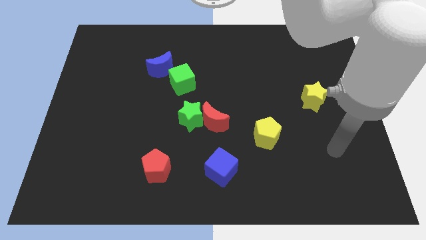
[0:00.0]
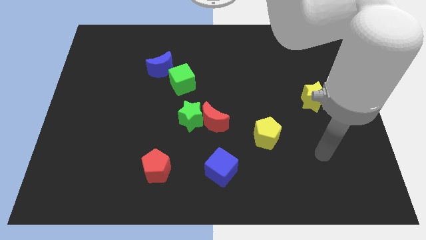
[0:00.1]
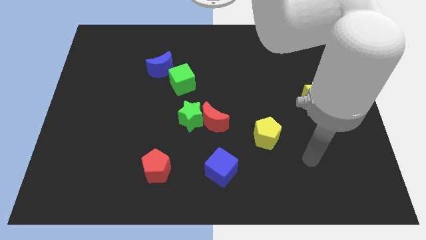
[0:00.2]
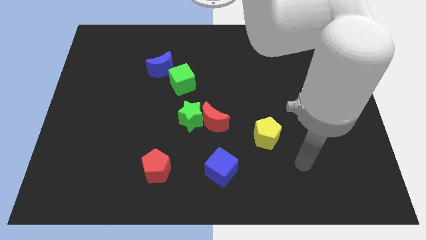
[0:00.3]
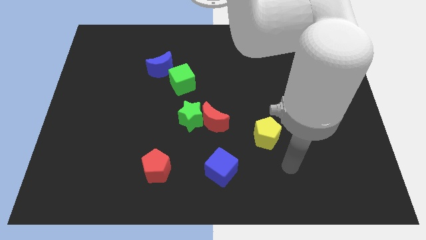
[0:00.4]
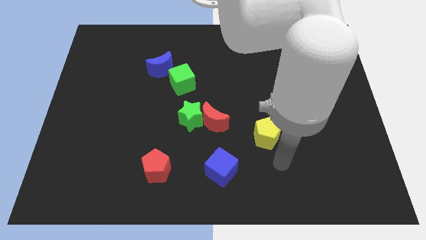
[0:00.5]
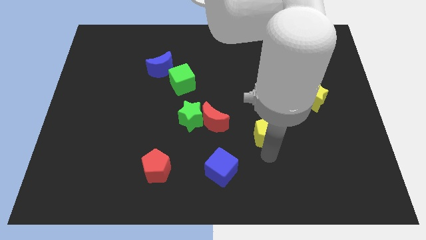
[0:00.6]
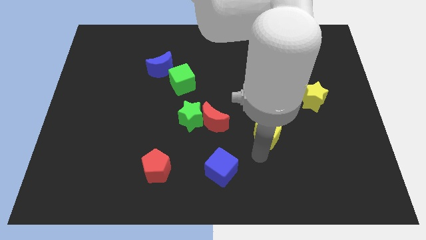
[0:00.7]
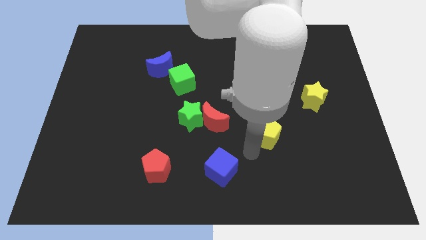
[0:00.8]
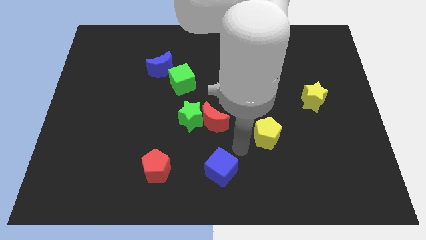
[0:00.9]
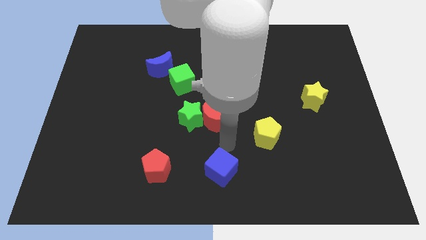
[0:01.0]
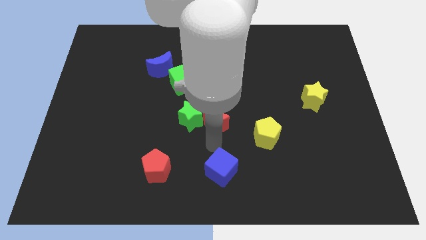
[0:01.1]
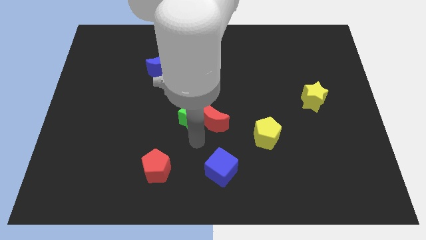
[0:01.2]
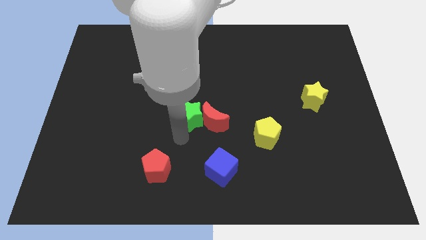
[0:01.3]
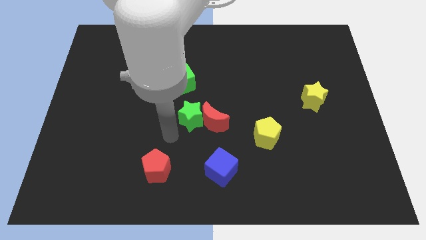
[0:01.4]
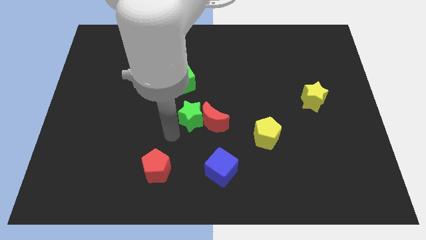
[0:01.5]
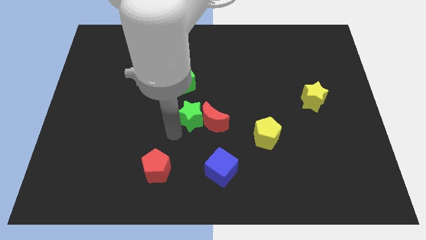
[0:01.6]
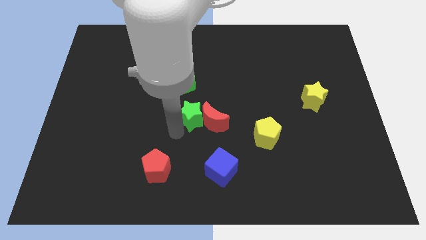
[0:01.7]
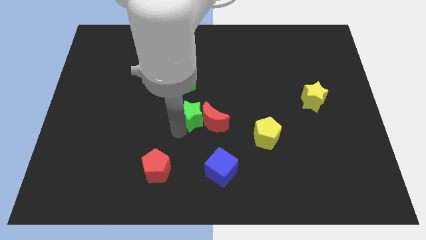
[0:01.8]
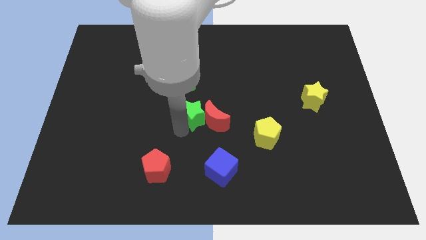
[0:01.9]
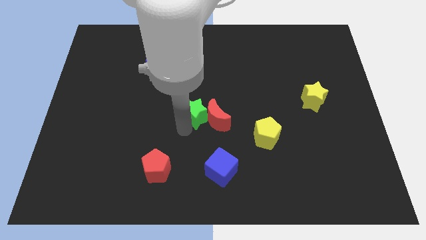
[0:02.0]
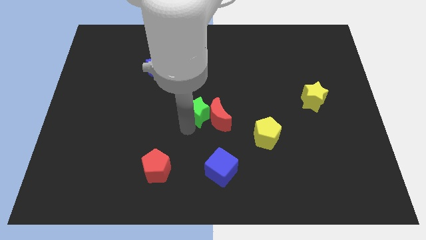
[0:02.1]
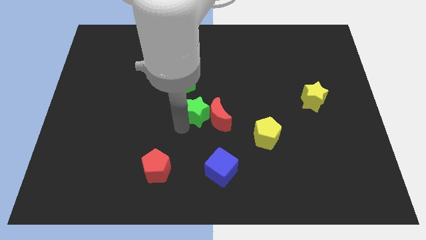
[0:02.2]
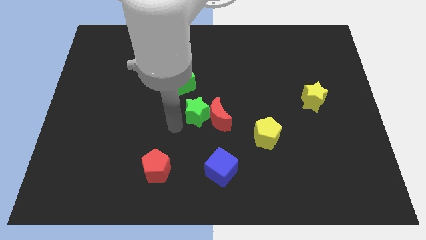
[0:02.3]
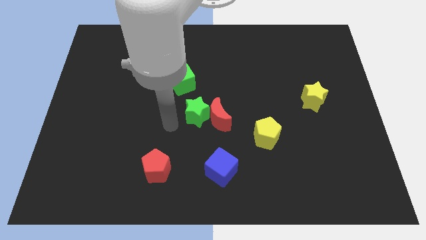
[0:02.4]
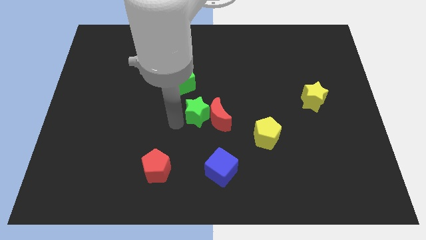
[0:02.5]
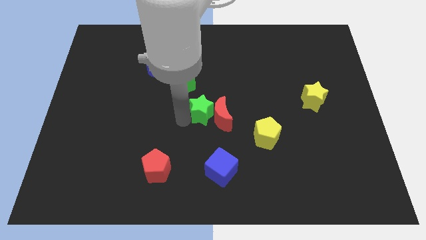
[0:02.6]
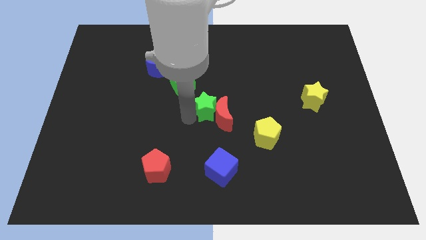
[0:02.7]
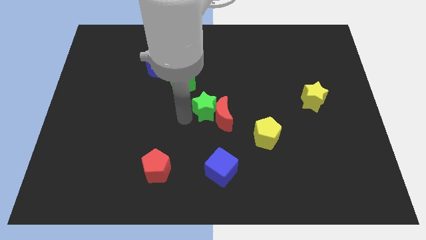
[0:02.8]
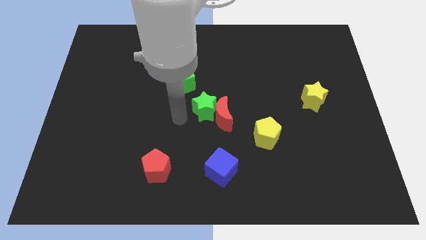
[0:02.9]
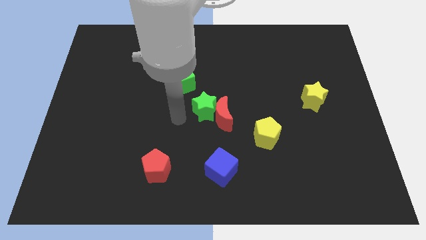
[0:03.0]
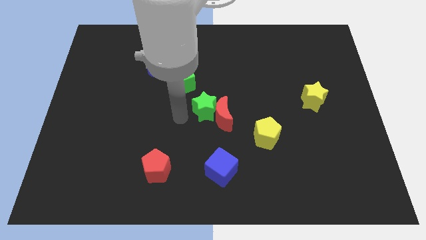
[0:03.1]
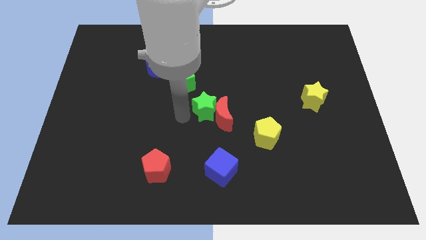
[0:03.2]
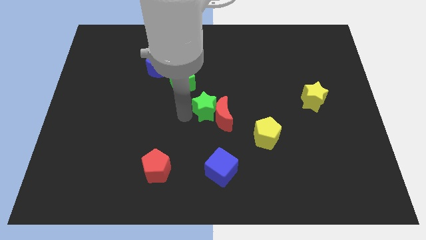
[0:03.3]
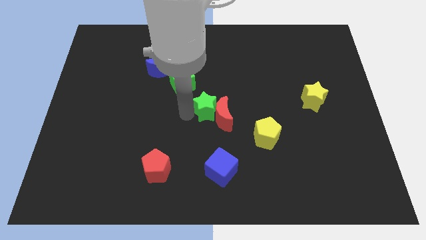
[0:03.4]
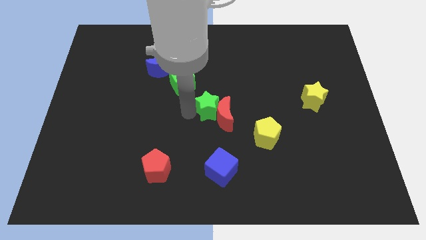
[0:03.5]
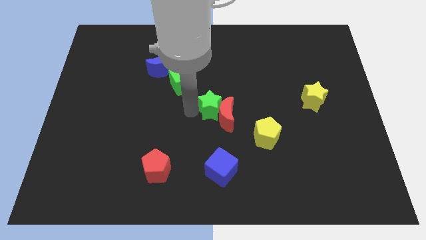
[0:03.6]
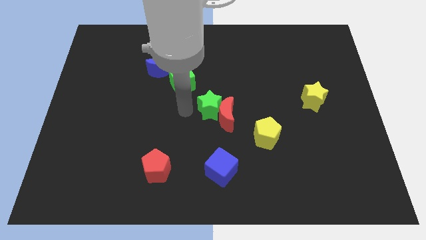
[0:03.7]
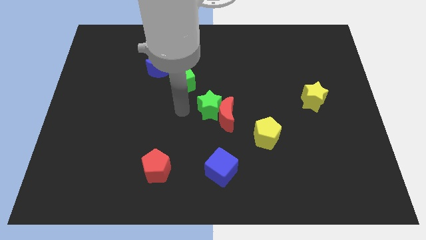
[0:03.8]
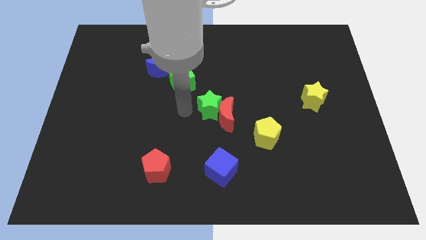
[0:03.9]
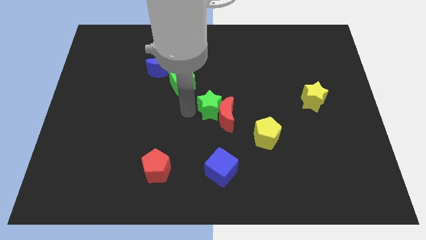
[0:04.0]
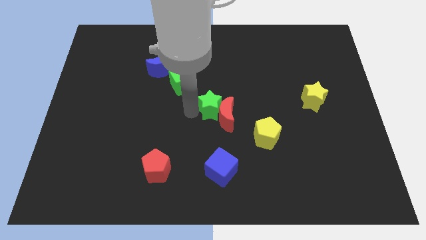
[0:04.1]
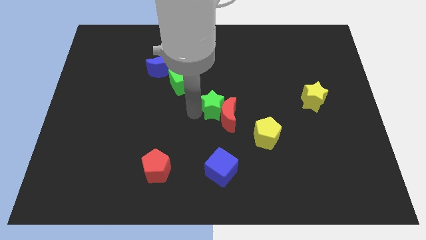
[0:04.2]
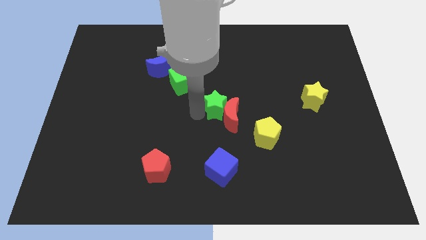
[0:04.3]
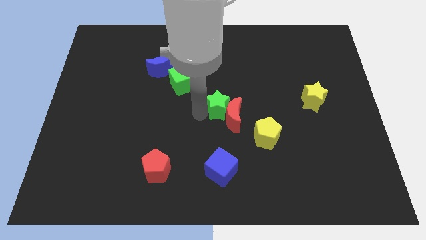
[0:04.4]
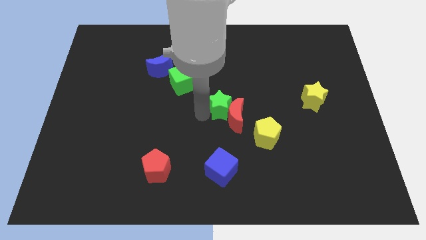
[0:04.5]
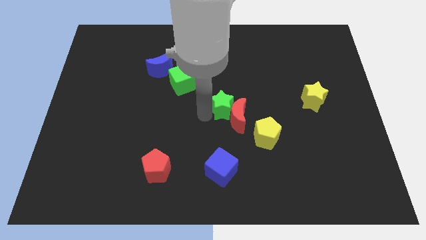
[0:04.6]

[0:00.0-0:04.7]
slide the green star a bit right

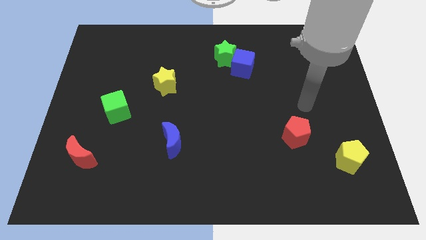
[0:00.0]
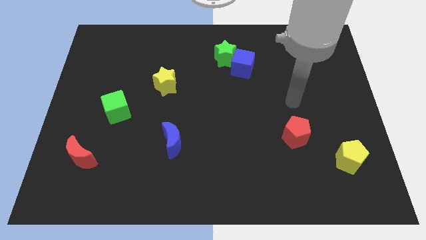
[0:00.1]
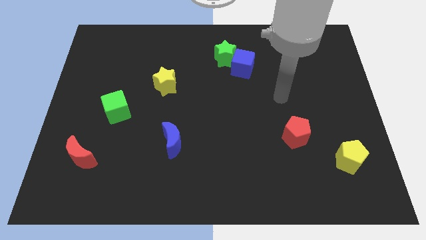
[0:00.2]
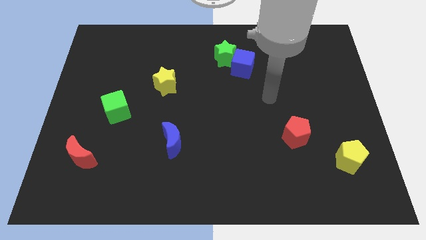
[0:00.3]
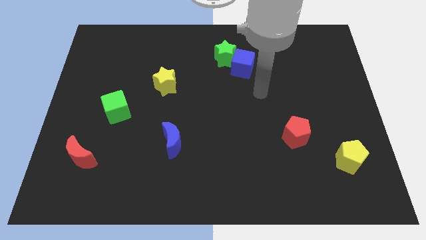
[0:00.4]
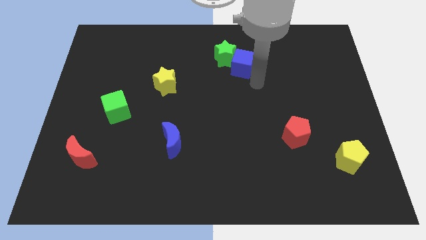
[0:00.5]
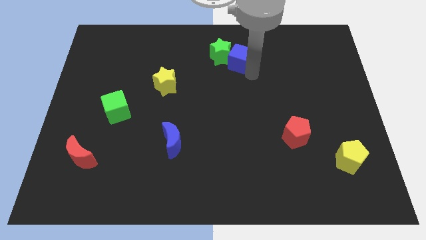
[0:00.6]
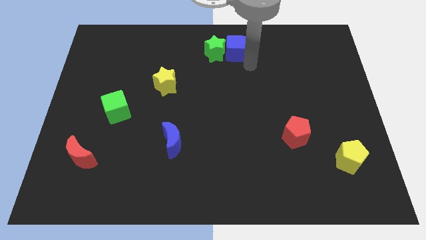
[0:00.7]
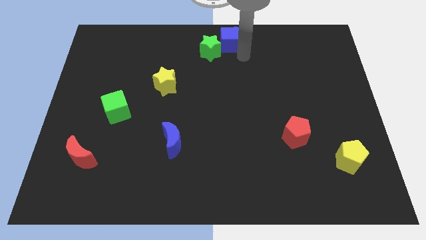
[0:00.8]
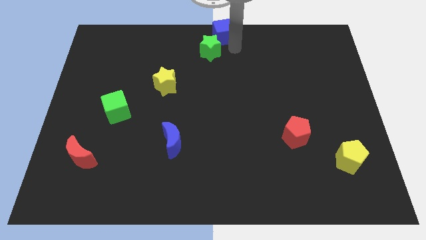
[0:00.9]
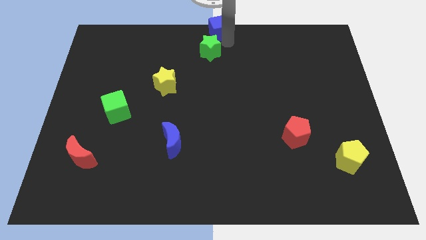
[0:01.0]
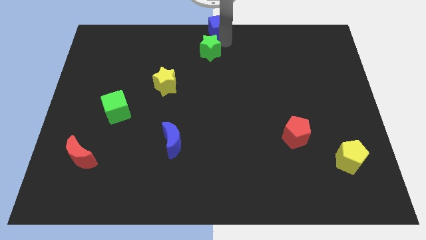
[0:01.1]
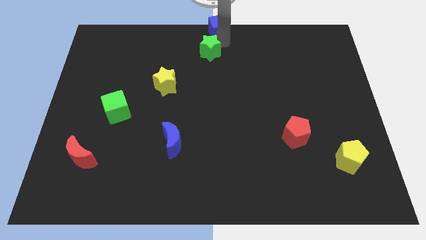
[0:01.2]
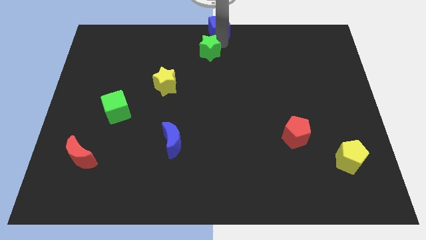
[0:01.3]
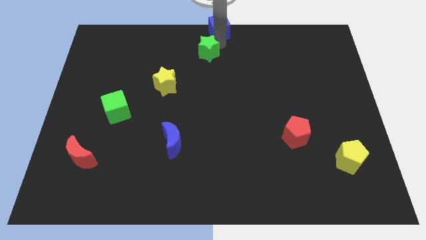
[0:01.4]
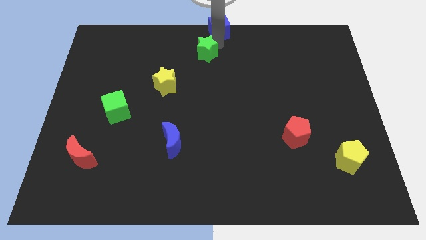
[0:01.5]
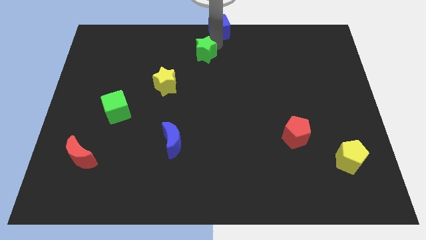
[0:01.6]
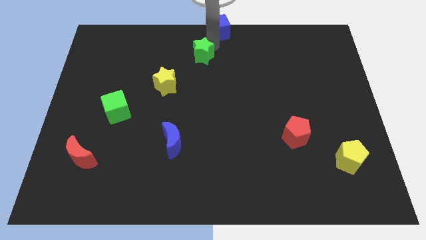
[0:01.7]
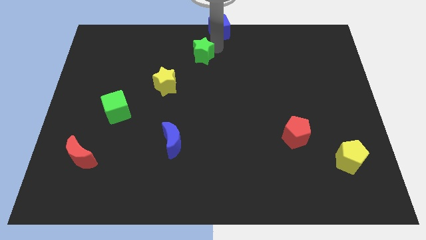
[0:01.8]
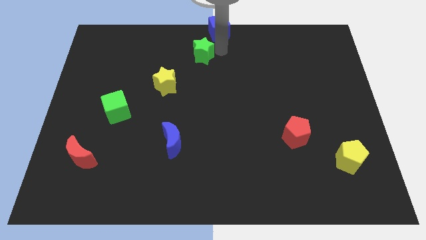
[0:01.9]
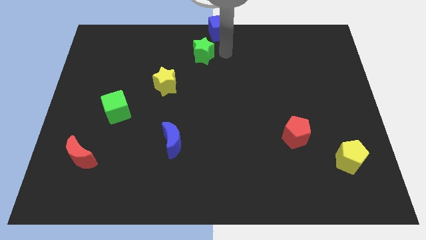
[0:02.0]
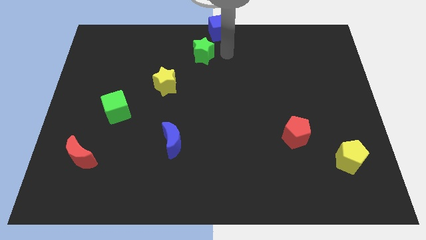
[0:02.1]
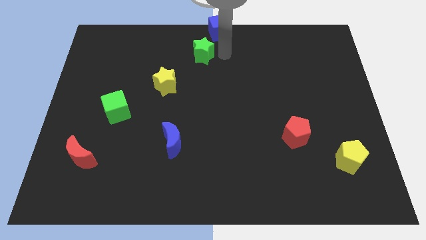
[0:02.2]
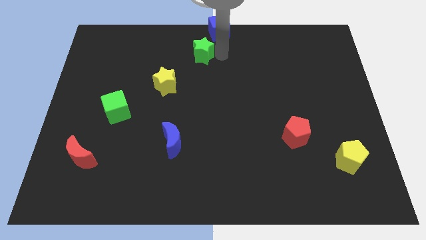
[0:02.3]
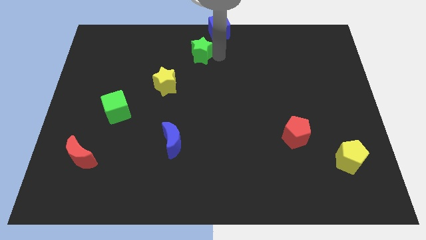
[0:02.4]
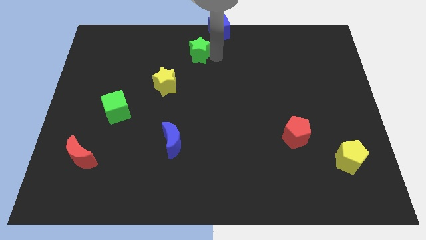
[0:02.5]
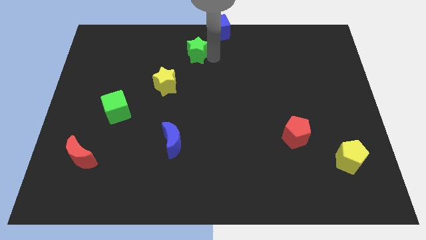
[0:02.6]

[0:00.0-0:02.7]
move the green star left somewhat

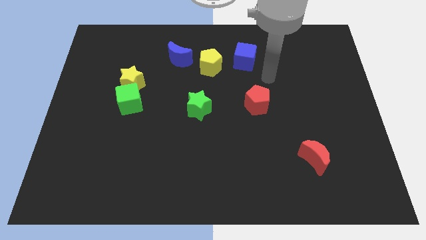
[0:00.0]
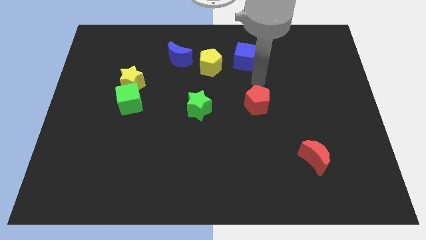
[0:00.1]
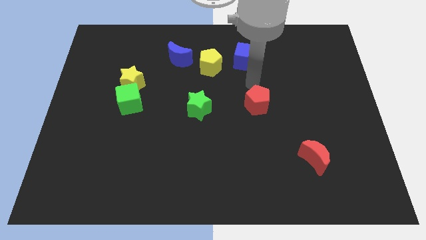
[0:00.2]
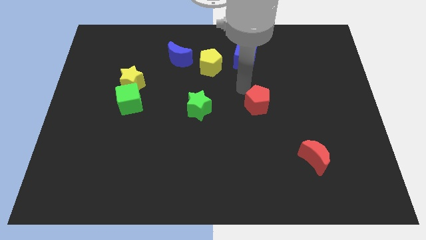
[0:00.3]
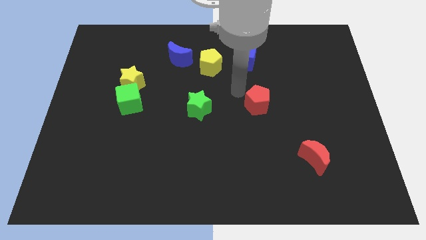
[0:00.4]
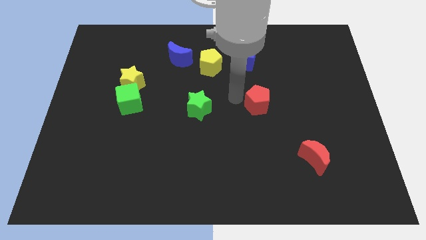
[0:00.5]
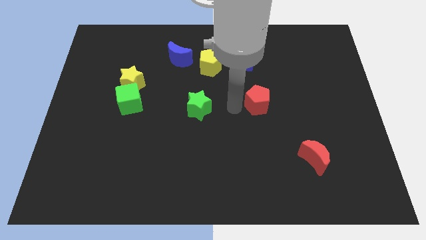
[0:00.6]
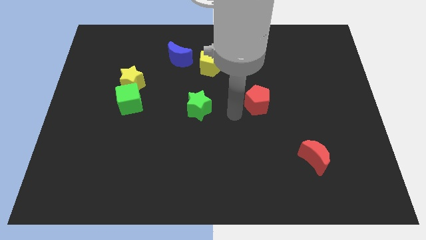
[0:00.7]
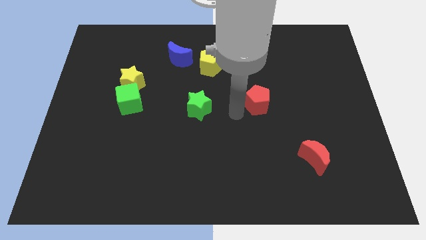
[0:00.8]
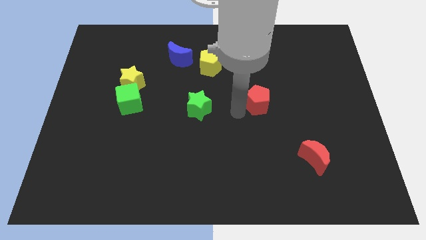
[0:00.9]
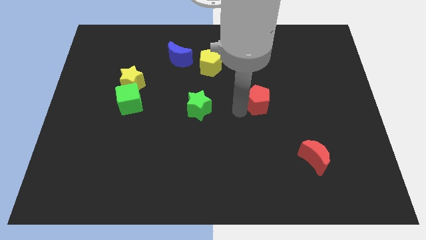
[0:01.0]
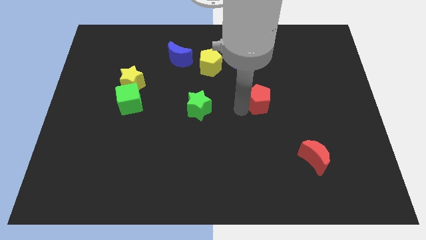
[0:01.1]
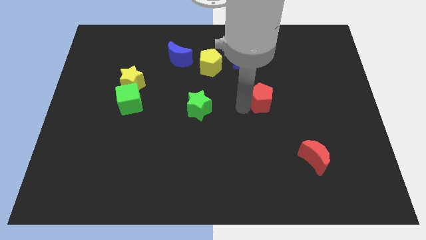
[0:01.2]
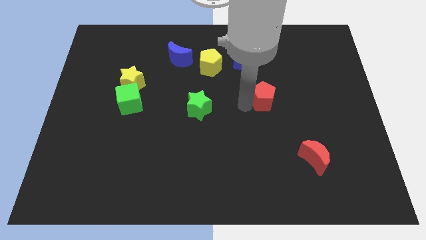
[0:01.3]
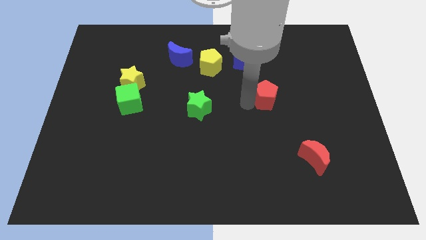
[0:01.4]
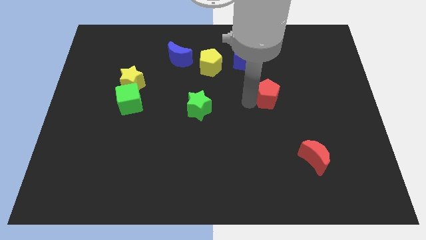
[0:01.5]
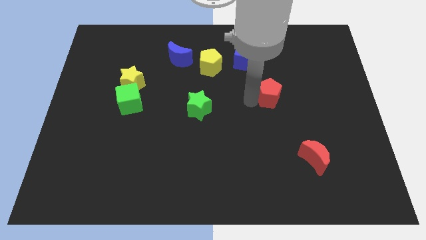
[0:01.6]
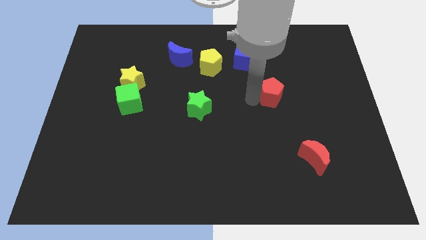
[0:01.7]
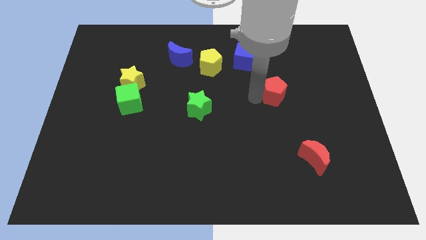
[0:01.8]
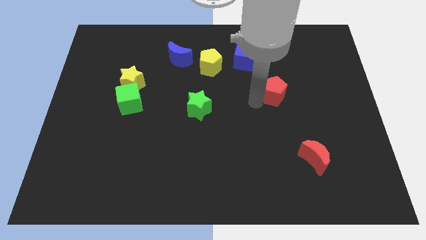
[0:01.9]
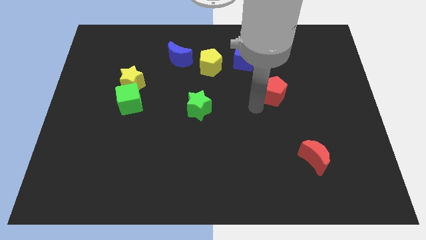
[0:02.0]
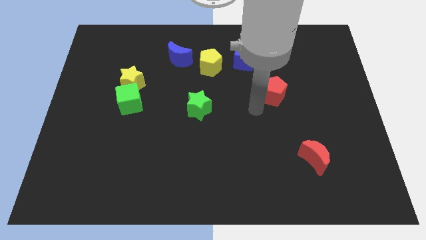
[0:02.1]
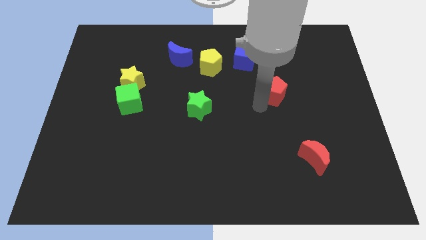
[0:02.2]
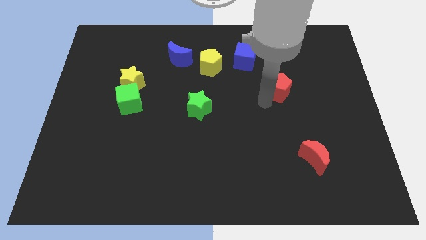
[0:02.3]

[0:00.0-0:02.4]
slightly push the red pentagon upwards and right
